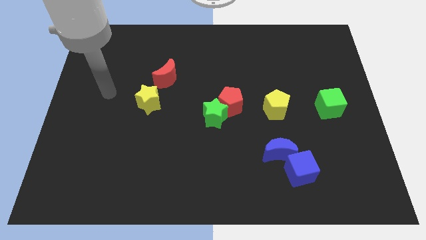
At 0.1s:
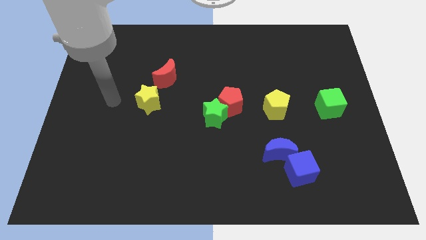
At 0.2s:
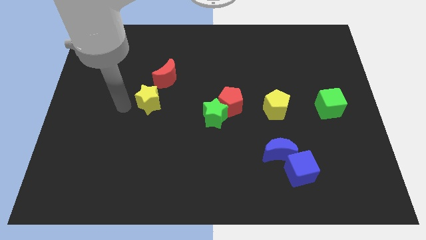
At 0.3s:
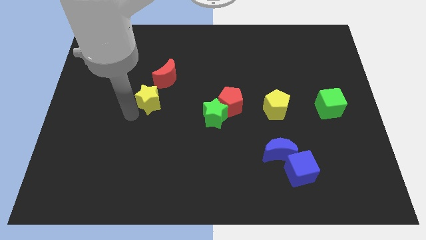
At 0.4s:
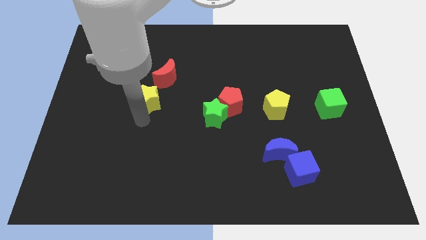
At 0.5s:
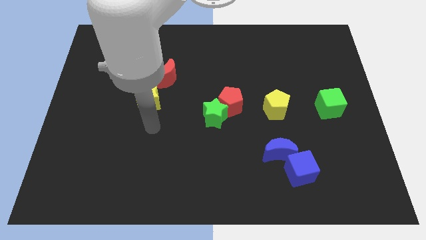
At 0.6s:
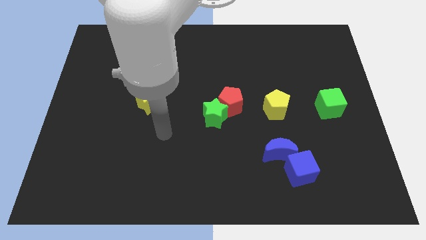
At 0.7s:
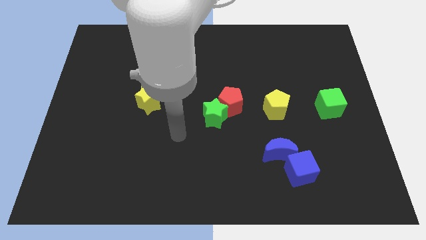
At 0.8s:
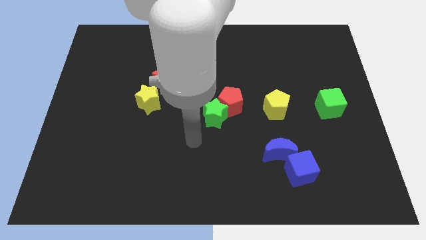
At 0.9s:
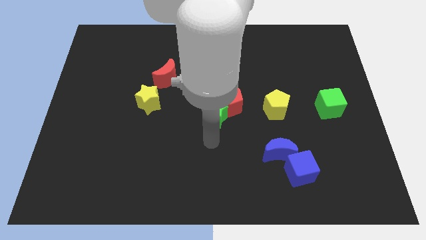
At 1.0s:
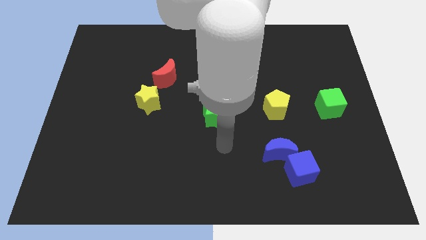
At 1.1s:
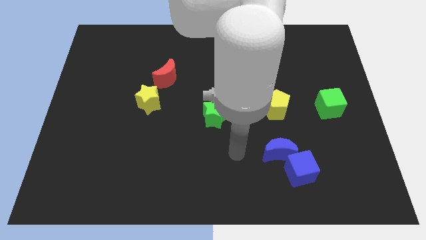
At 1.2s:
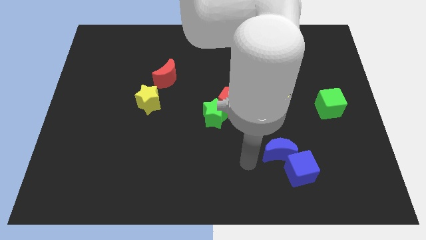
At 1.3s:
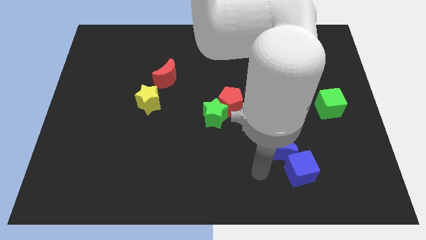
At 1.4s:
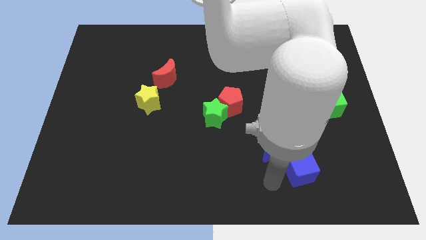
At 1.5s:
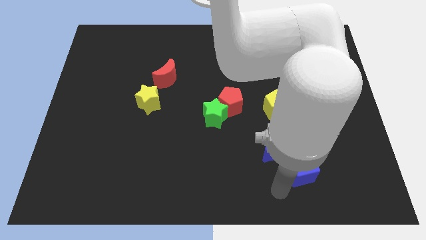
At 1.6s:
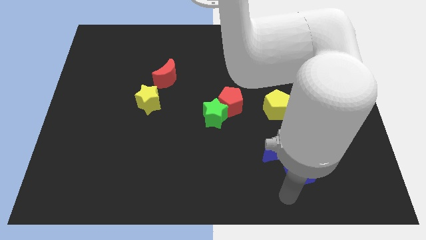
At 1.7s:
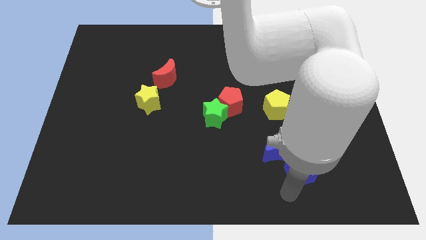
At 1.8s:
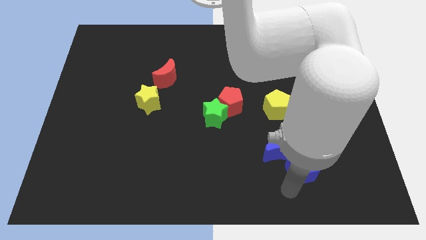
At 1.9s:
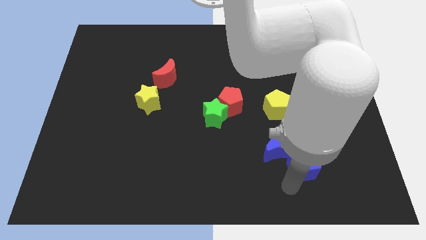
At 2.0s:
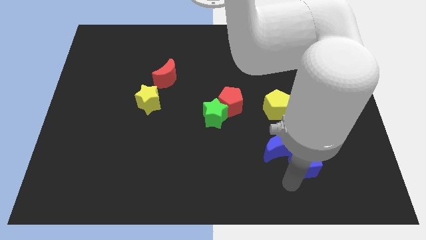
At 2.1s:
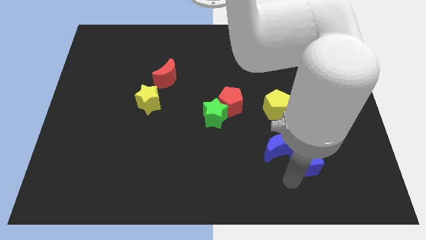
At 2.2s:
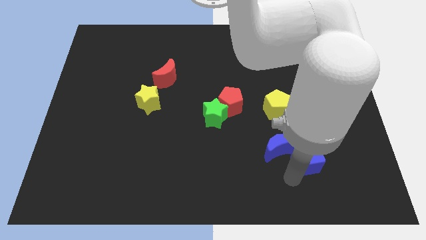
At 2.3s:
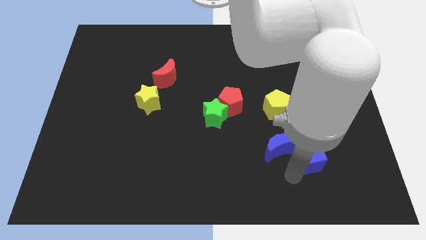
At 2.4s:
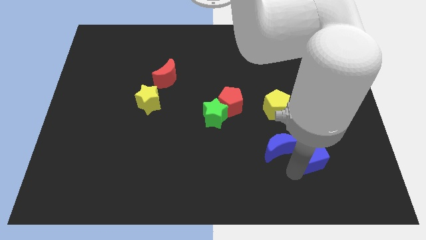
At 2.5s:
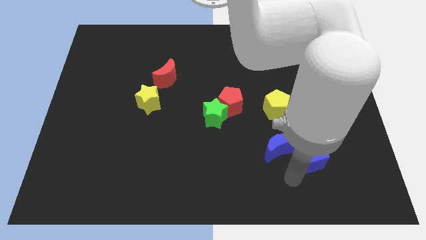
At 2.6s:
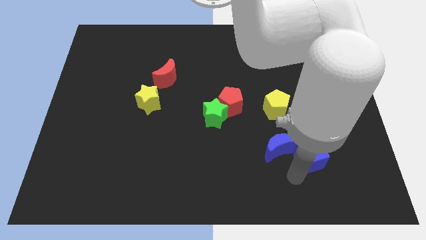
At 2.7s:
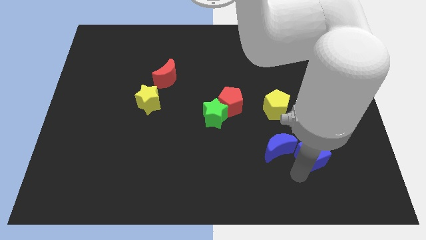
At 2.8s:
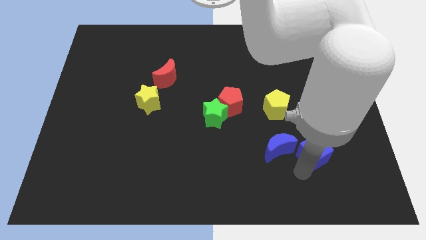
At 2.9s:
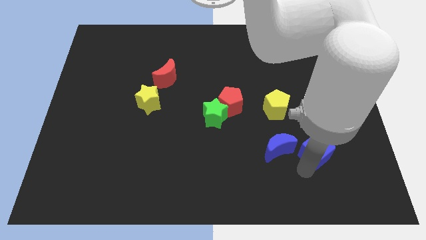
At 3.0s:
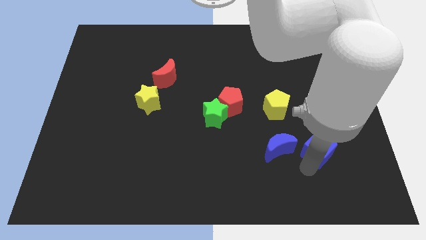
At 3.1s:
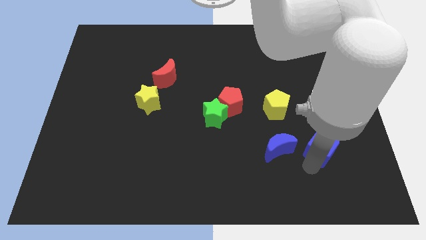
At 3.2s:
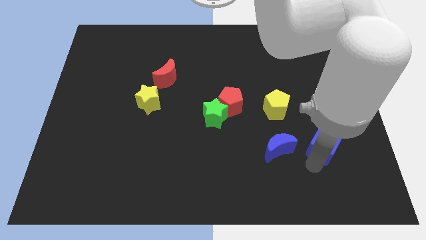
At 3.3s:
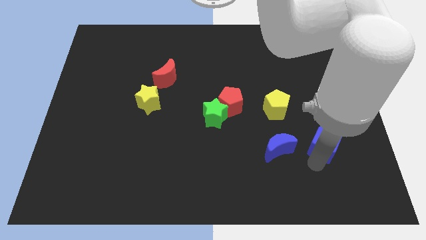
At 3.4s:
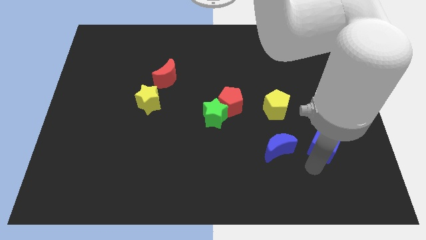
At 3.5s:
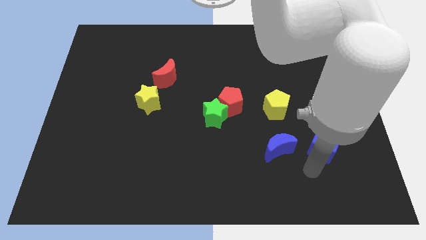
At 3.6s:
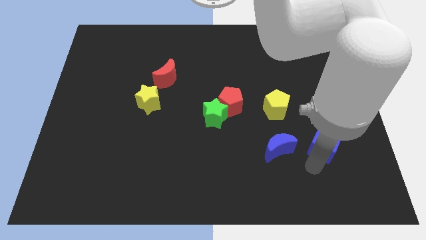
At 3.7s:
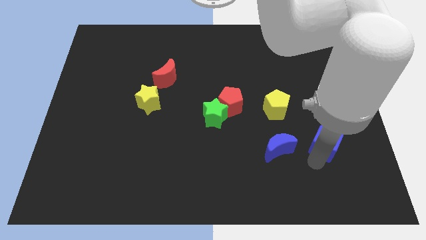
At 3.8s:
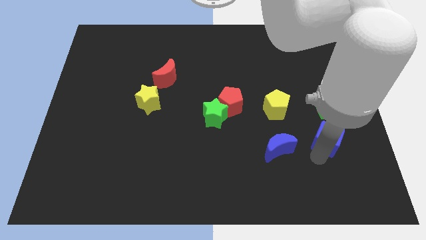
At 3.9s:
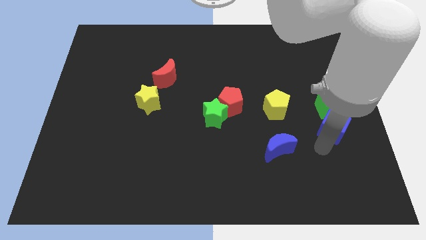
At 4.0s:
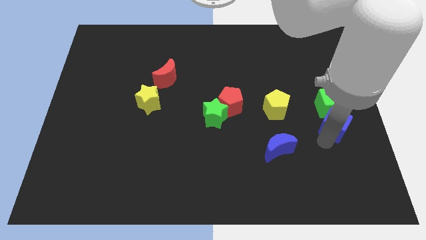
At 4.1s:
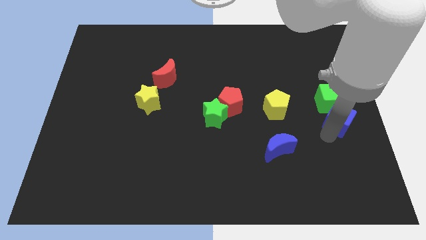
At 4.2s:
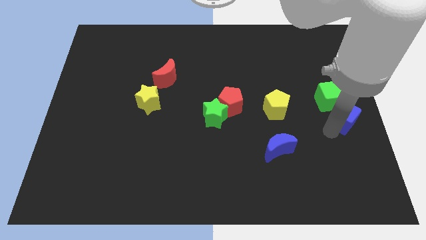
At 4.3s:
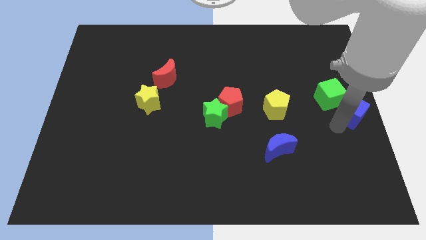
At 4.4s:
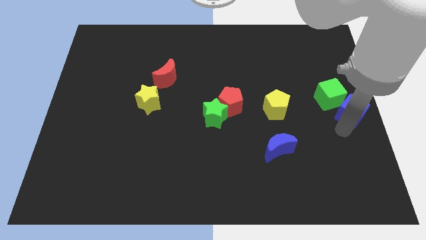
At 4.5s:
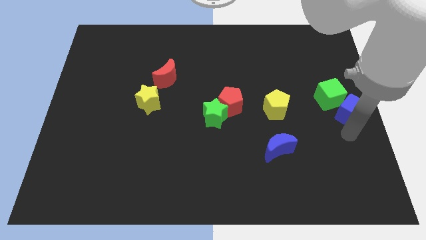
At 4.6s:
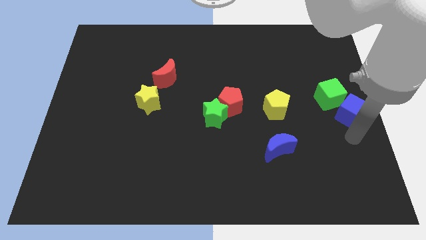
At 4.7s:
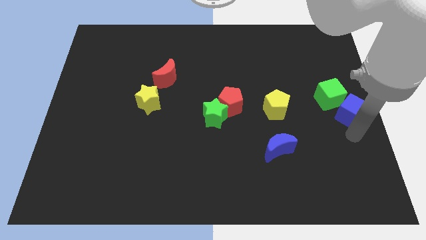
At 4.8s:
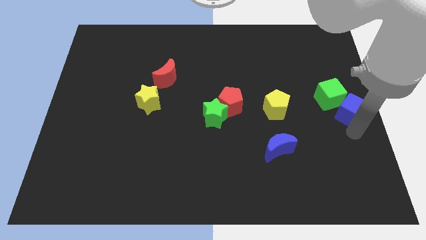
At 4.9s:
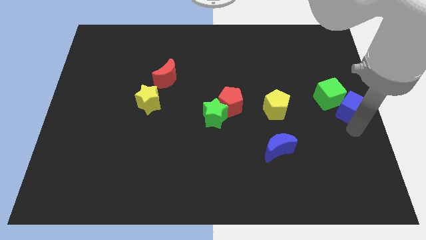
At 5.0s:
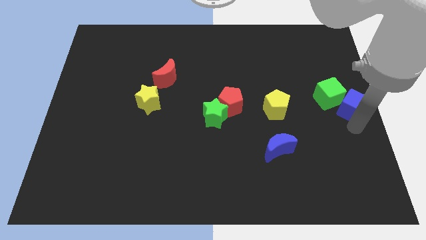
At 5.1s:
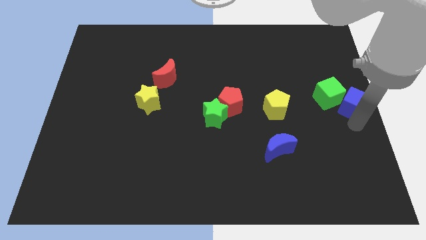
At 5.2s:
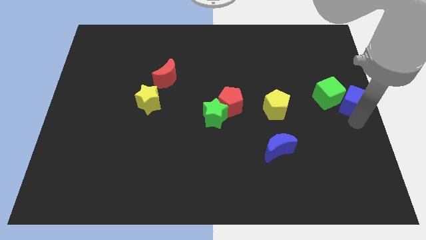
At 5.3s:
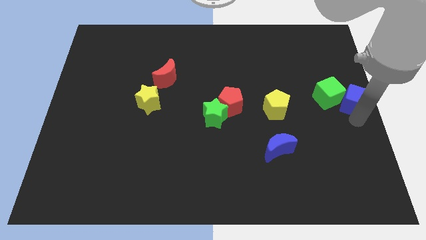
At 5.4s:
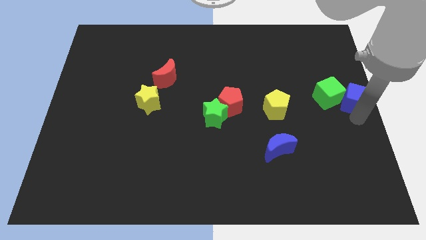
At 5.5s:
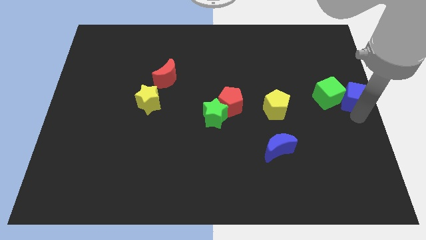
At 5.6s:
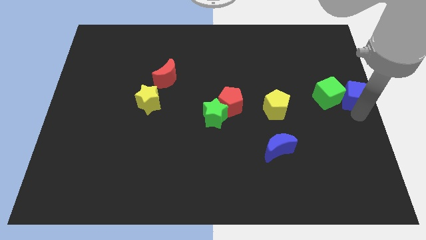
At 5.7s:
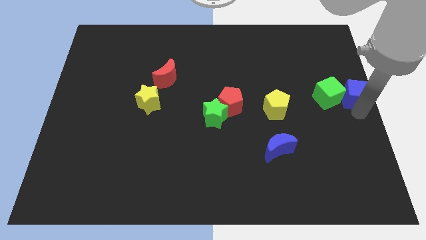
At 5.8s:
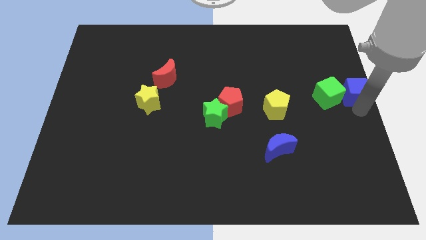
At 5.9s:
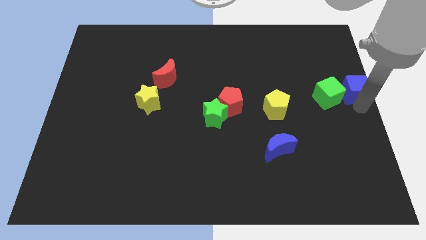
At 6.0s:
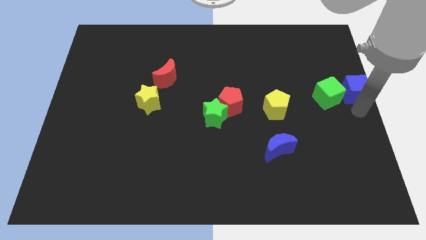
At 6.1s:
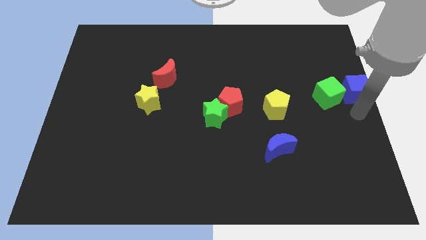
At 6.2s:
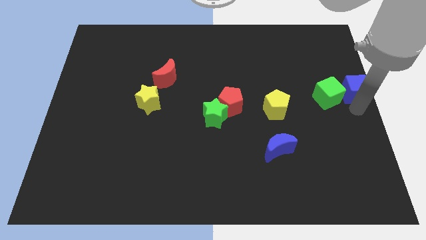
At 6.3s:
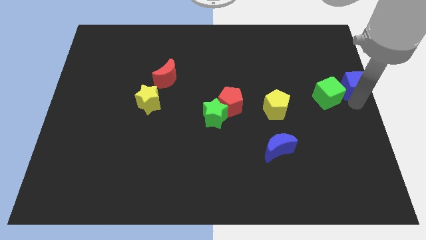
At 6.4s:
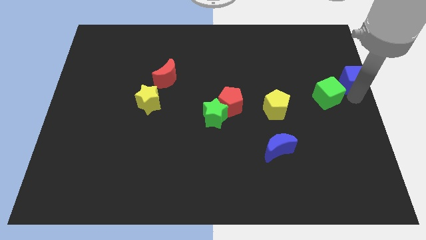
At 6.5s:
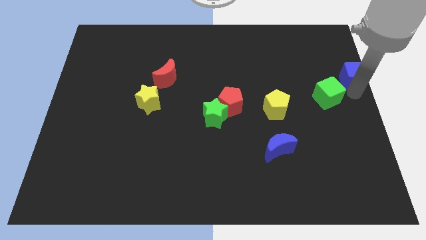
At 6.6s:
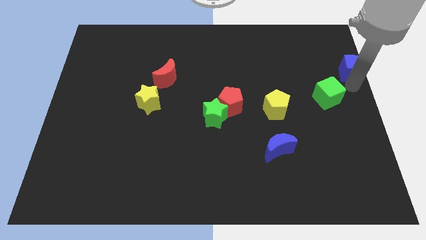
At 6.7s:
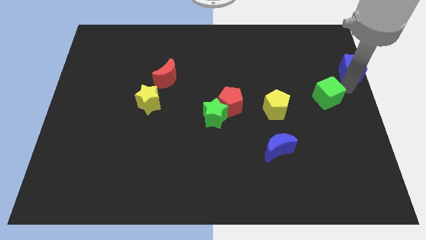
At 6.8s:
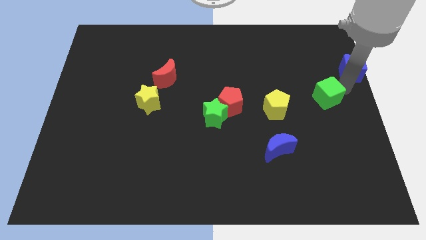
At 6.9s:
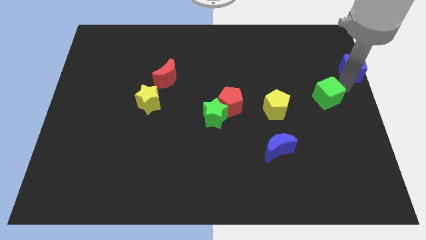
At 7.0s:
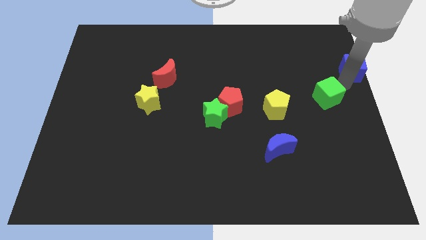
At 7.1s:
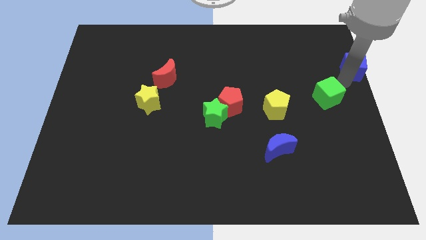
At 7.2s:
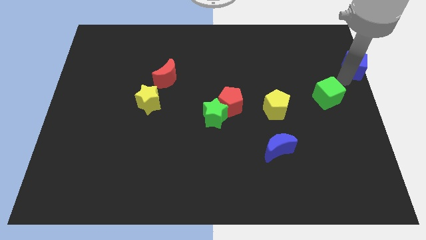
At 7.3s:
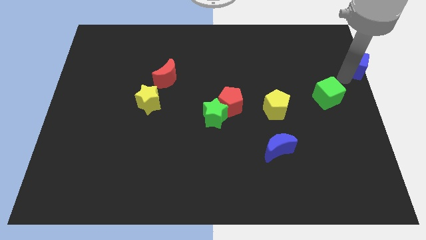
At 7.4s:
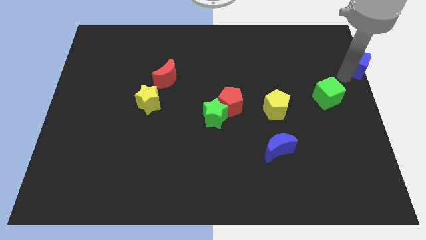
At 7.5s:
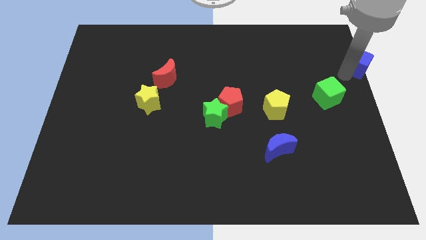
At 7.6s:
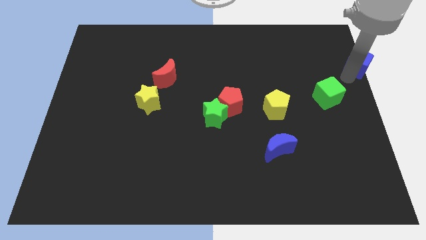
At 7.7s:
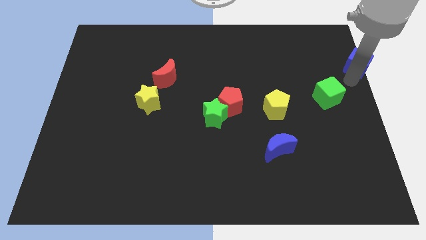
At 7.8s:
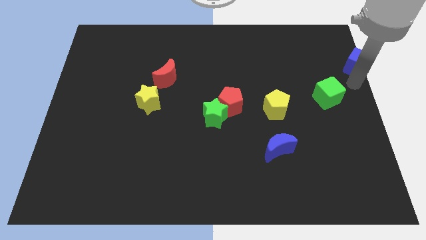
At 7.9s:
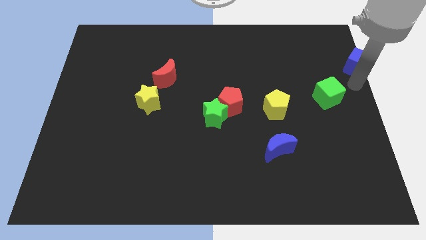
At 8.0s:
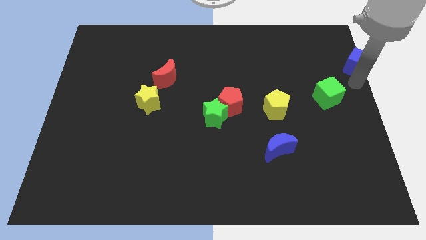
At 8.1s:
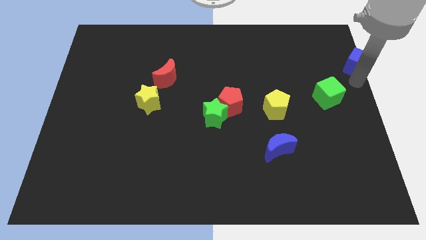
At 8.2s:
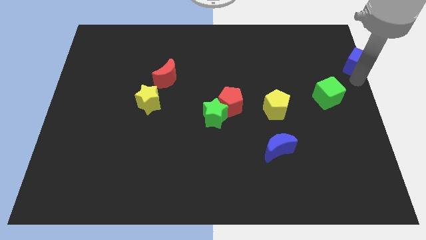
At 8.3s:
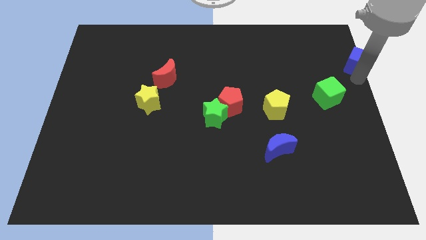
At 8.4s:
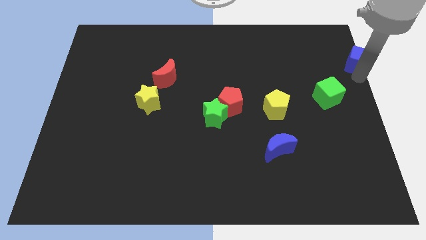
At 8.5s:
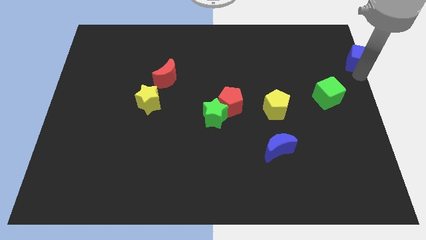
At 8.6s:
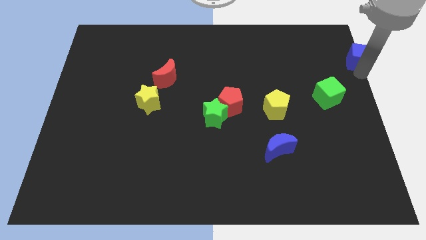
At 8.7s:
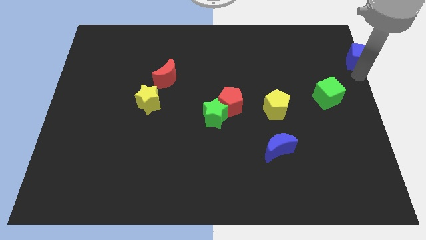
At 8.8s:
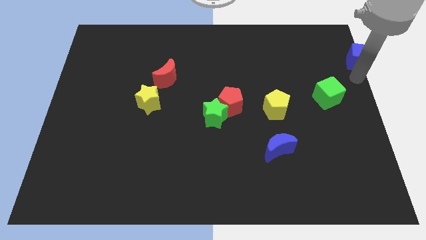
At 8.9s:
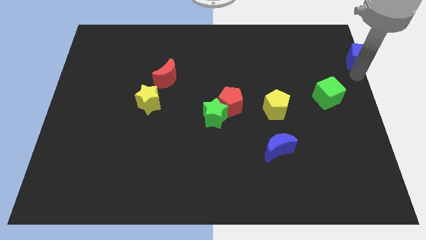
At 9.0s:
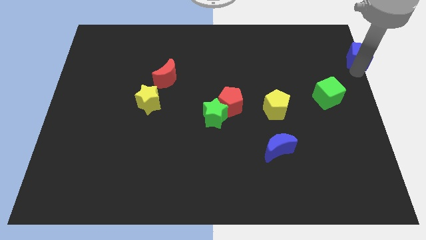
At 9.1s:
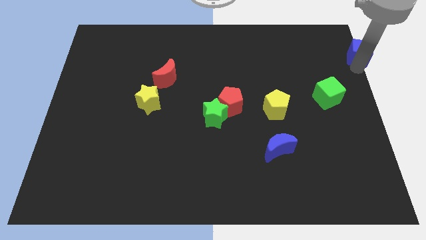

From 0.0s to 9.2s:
put the blue cube to the top right corner
